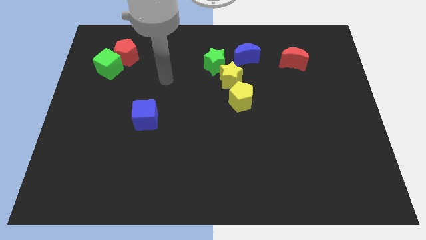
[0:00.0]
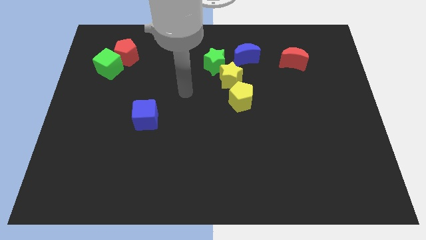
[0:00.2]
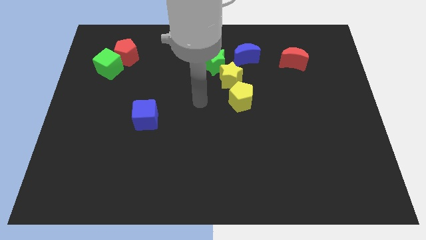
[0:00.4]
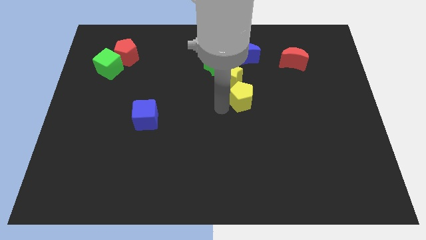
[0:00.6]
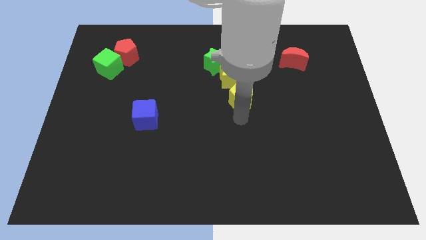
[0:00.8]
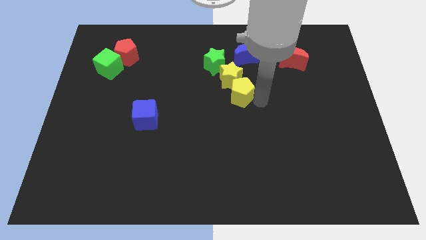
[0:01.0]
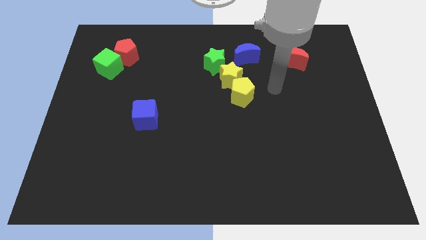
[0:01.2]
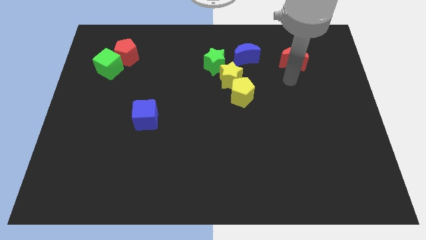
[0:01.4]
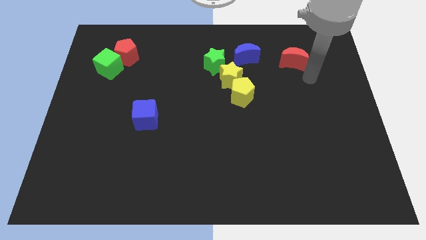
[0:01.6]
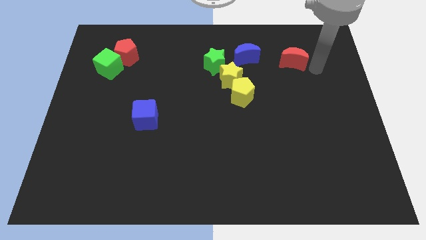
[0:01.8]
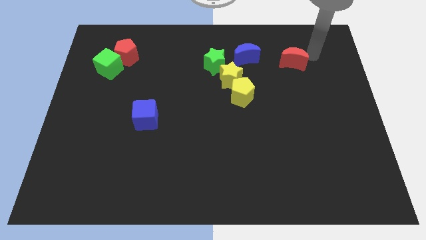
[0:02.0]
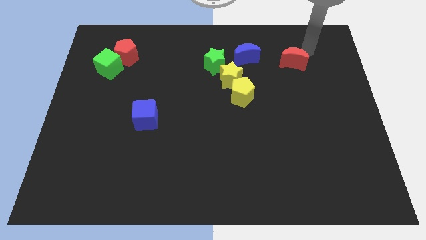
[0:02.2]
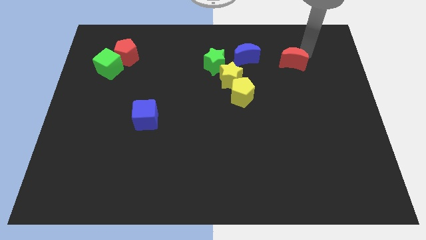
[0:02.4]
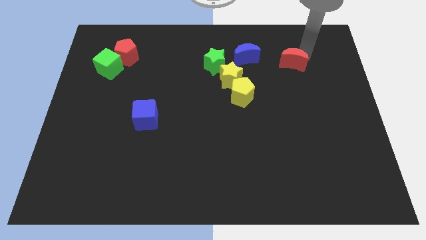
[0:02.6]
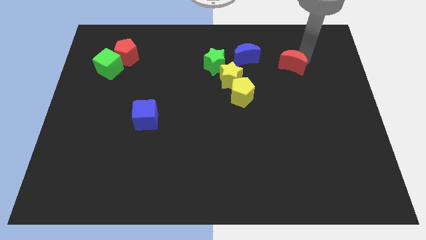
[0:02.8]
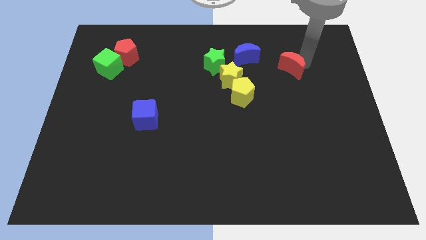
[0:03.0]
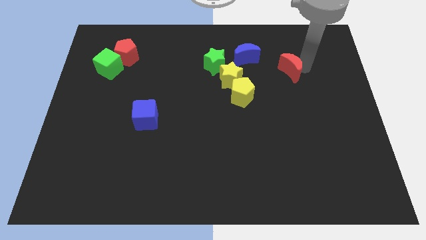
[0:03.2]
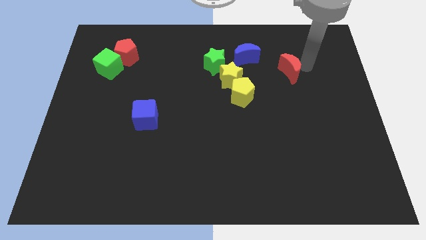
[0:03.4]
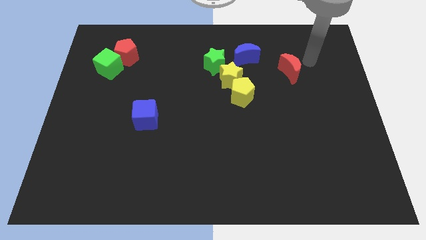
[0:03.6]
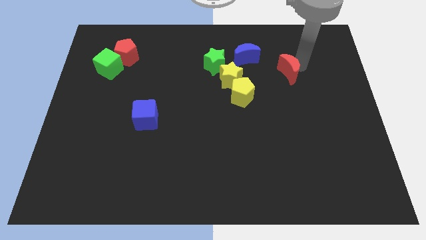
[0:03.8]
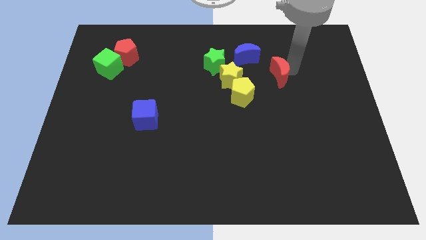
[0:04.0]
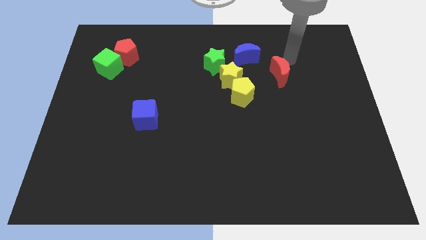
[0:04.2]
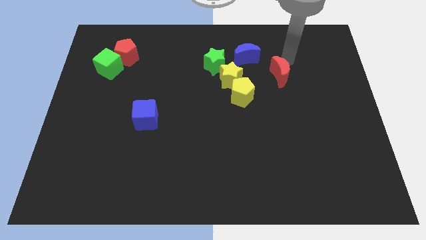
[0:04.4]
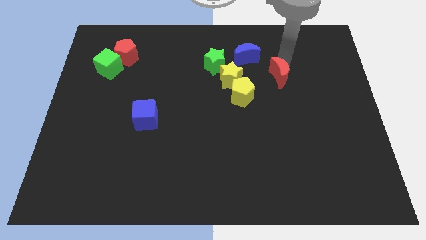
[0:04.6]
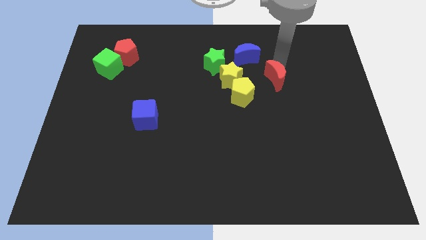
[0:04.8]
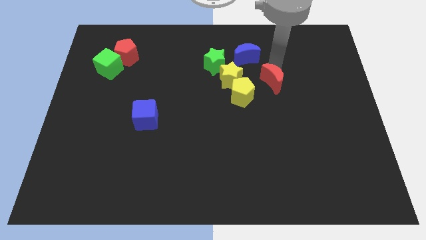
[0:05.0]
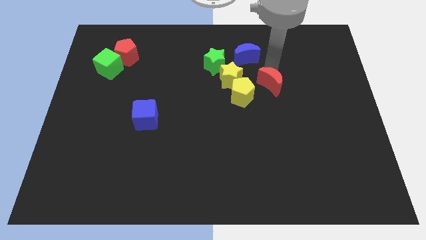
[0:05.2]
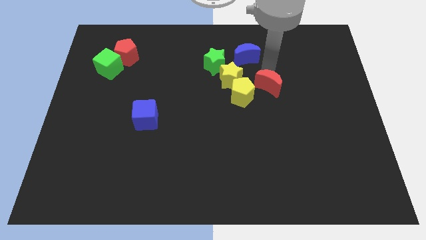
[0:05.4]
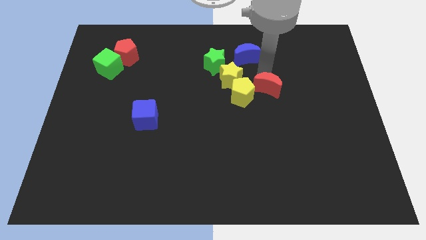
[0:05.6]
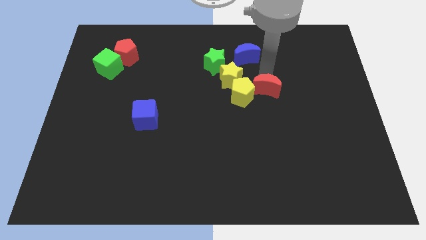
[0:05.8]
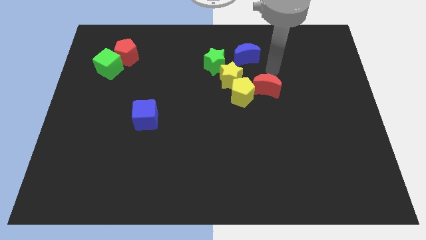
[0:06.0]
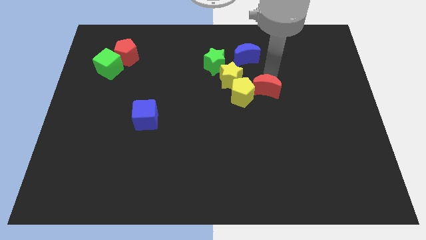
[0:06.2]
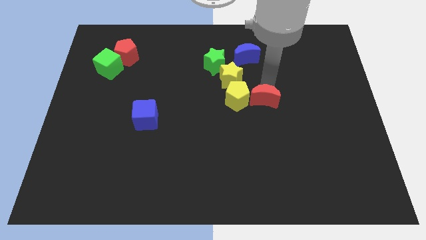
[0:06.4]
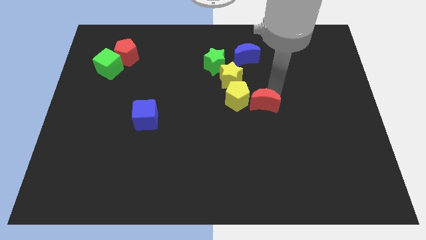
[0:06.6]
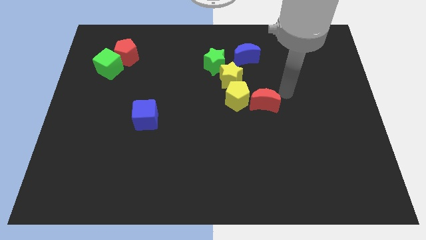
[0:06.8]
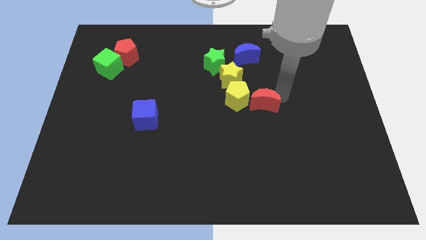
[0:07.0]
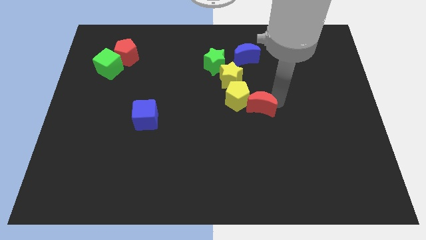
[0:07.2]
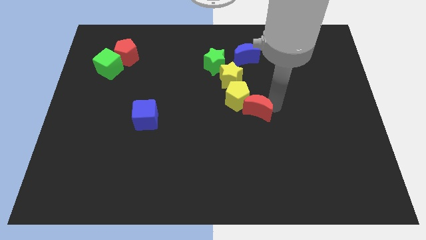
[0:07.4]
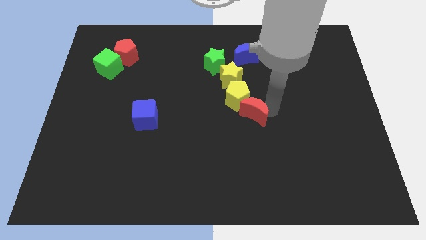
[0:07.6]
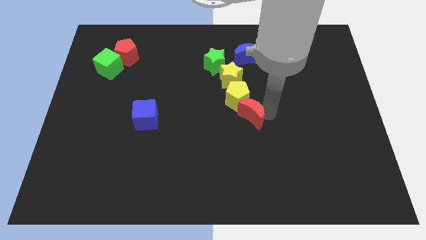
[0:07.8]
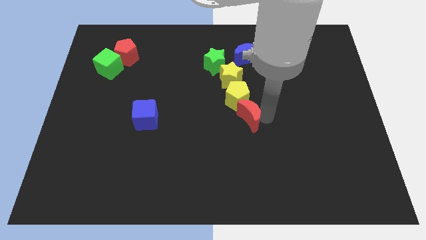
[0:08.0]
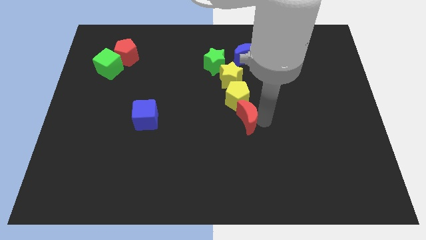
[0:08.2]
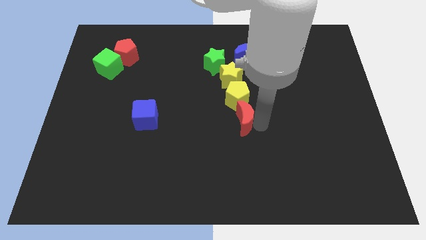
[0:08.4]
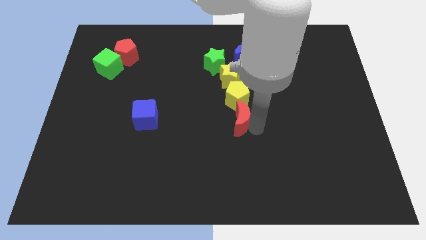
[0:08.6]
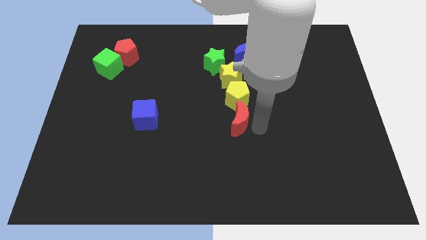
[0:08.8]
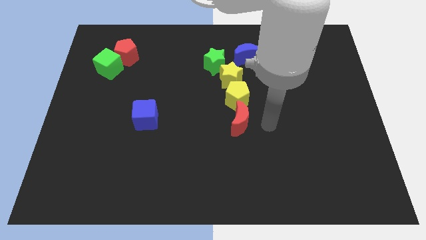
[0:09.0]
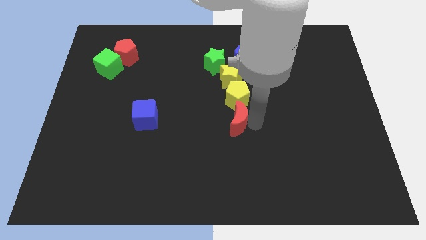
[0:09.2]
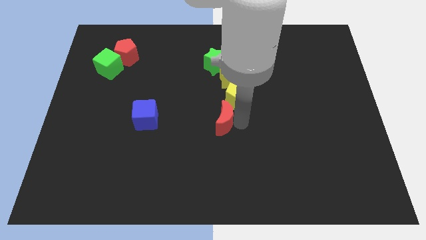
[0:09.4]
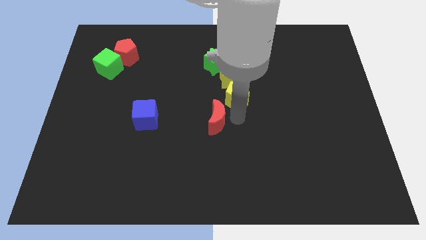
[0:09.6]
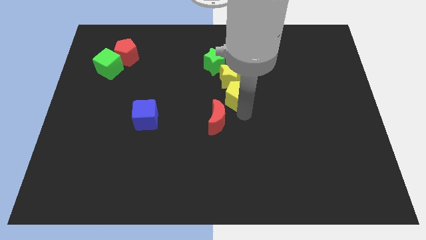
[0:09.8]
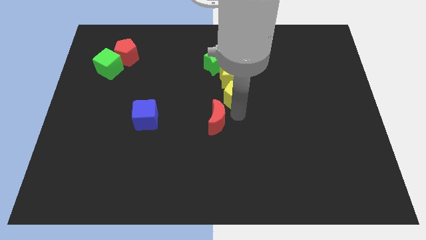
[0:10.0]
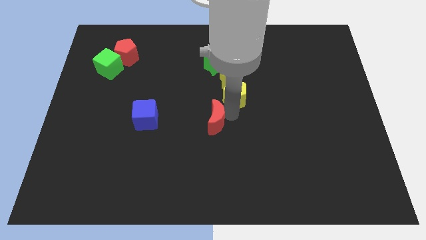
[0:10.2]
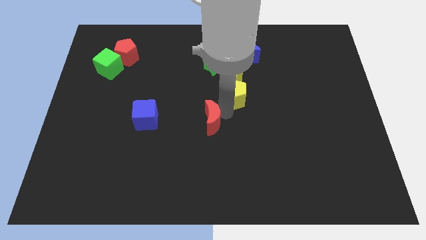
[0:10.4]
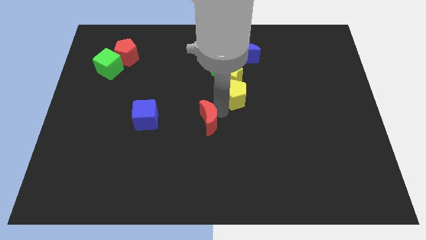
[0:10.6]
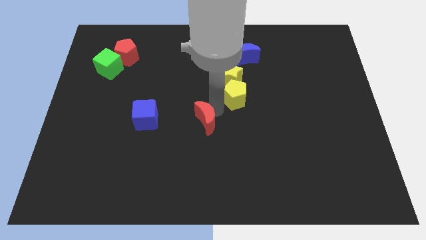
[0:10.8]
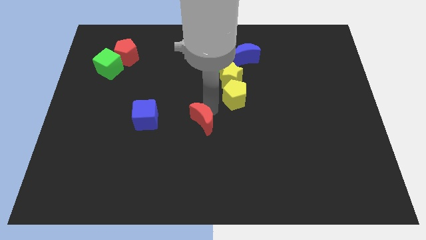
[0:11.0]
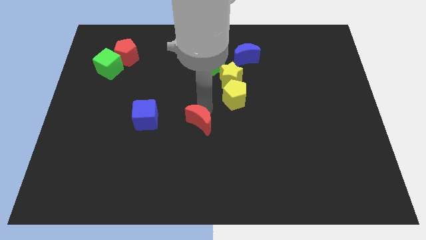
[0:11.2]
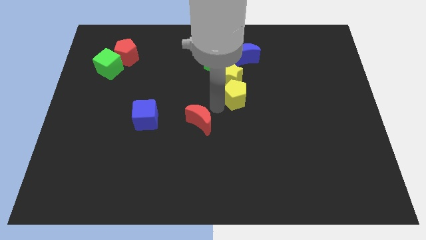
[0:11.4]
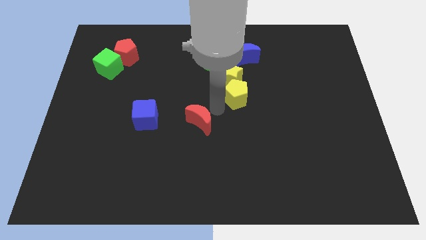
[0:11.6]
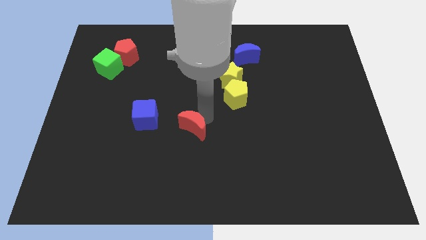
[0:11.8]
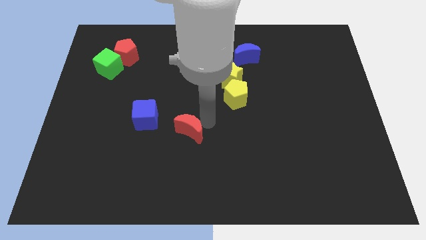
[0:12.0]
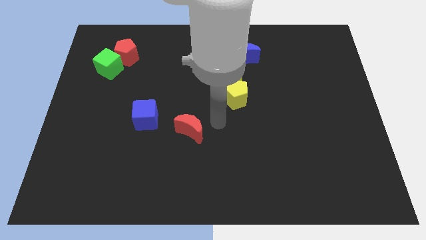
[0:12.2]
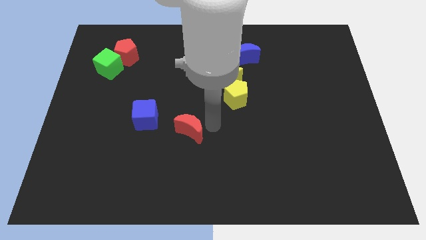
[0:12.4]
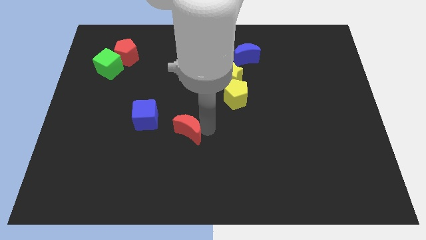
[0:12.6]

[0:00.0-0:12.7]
move the red moon to the bottom right side of the blue cube

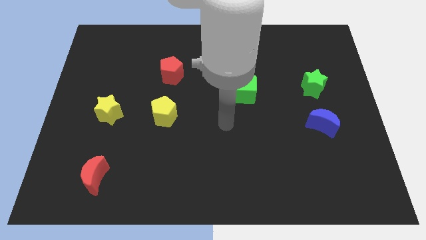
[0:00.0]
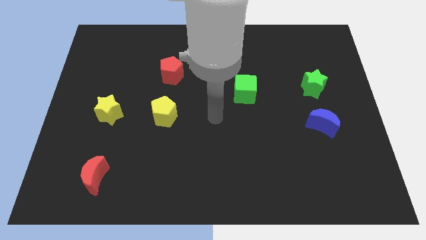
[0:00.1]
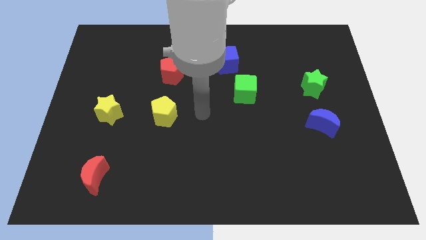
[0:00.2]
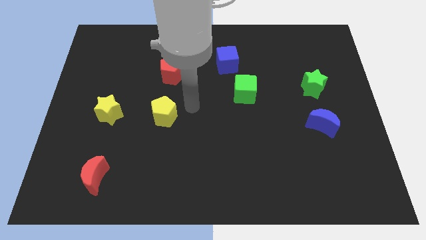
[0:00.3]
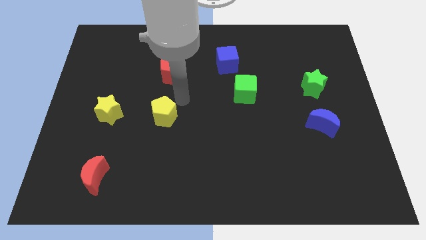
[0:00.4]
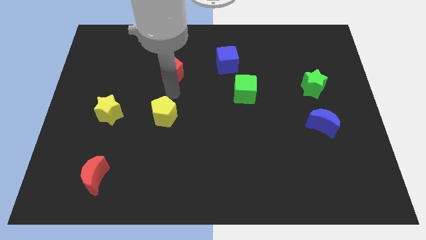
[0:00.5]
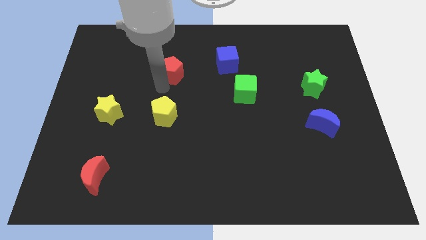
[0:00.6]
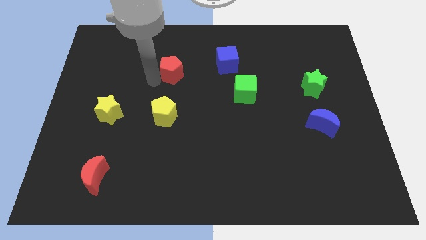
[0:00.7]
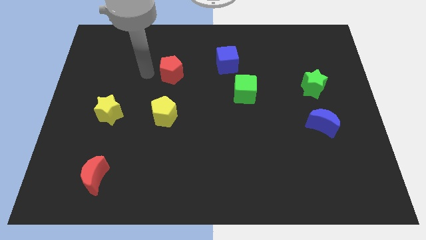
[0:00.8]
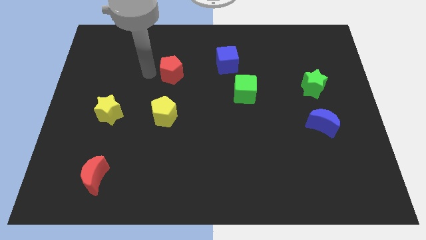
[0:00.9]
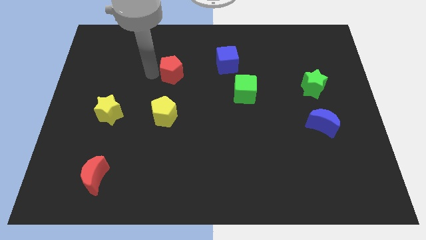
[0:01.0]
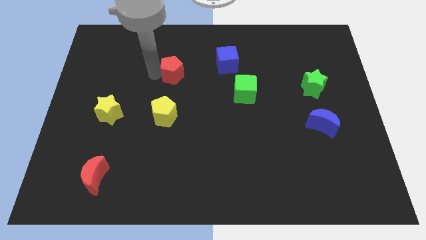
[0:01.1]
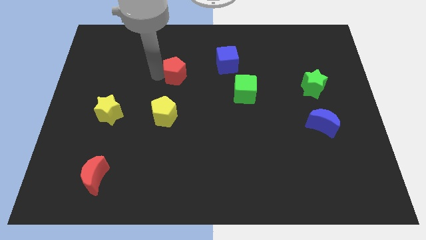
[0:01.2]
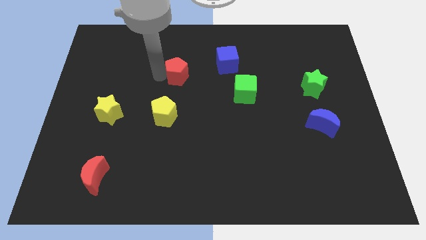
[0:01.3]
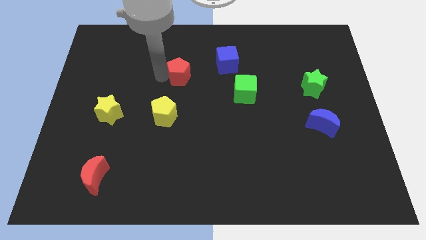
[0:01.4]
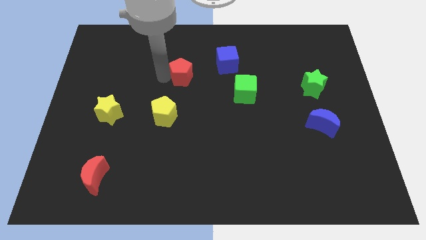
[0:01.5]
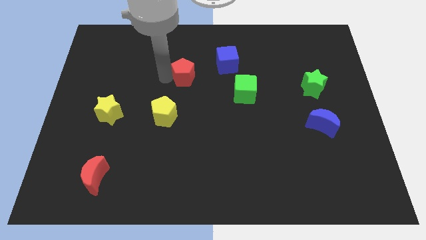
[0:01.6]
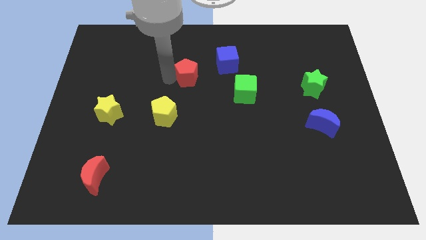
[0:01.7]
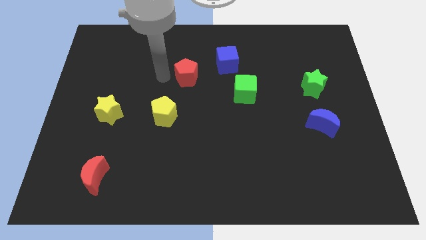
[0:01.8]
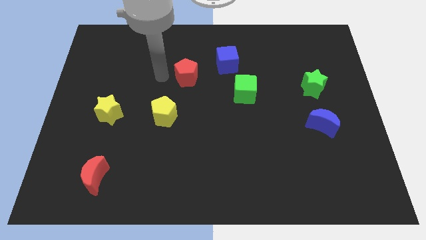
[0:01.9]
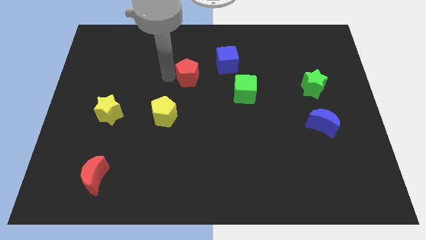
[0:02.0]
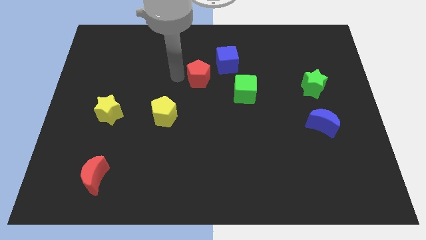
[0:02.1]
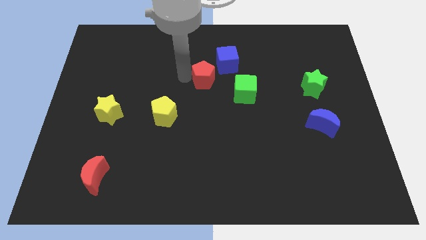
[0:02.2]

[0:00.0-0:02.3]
put the red pentagon to the top left of the green cube
